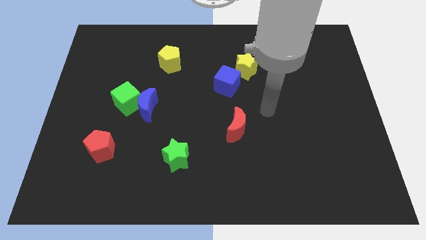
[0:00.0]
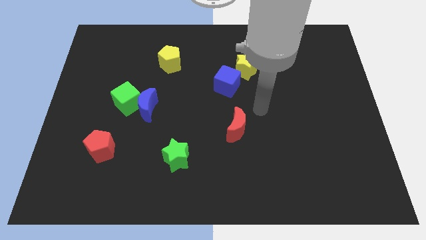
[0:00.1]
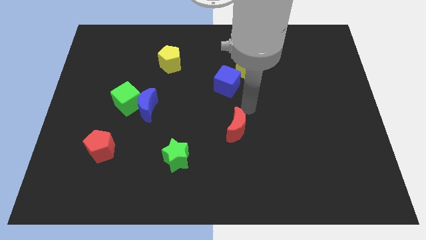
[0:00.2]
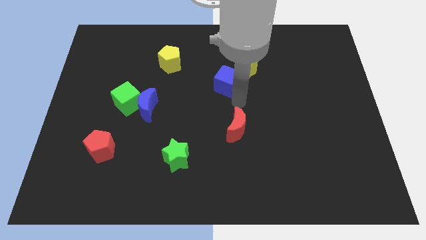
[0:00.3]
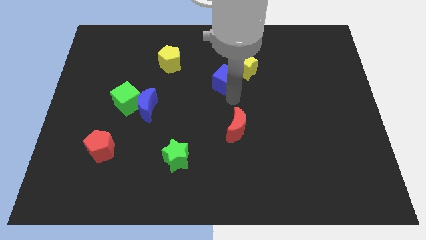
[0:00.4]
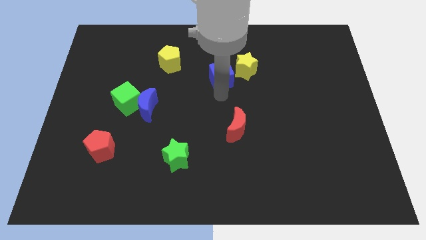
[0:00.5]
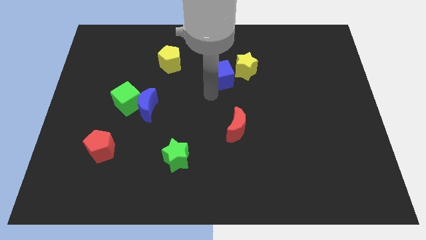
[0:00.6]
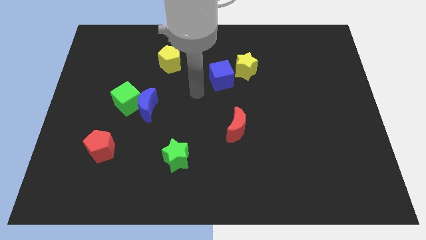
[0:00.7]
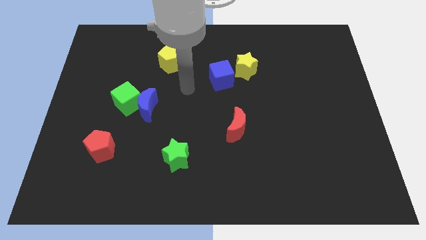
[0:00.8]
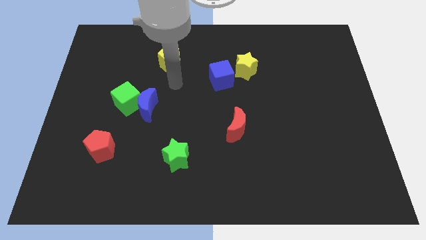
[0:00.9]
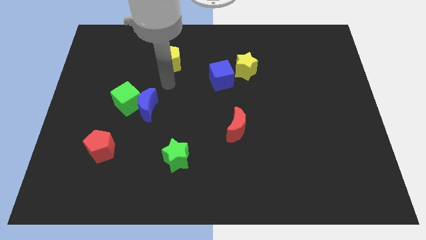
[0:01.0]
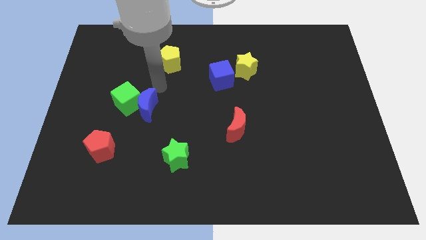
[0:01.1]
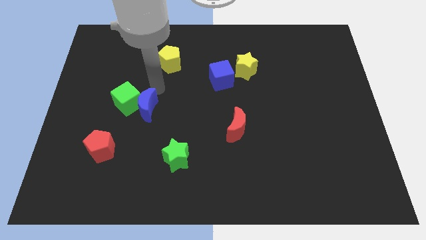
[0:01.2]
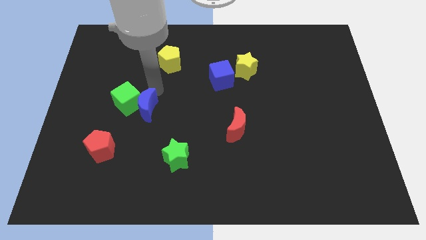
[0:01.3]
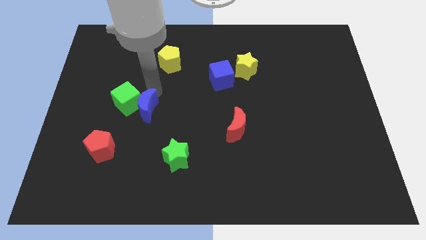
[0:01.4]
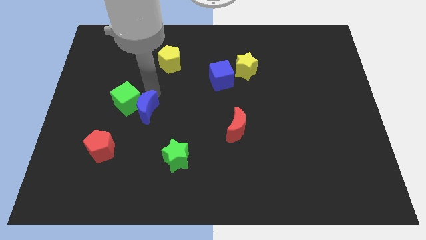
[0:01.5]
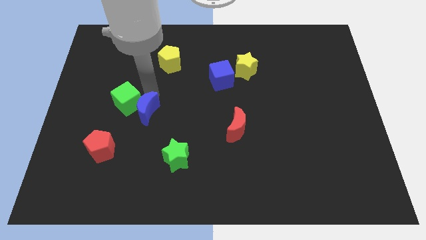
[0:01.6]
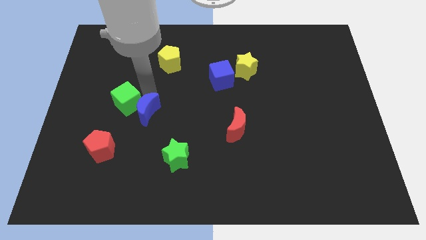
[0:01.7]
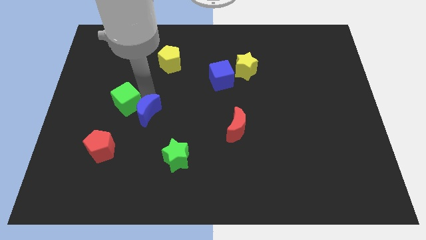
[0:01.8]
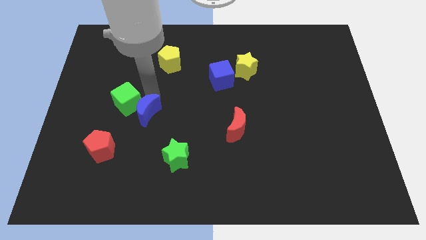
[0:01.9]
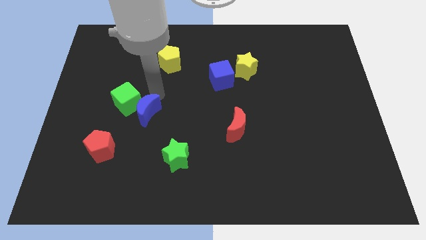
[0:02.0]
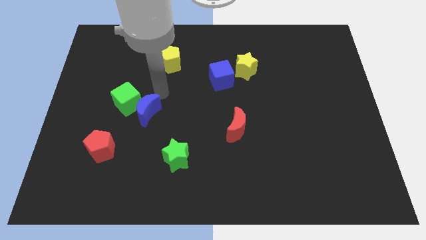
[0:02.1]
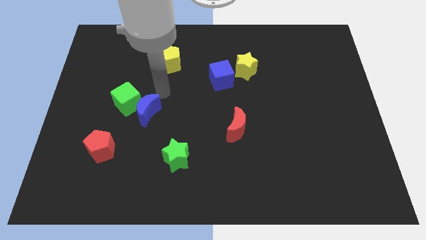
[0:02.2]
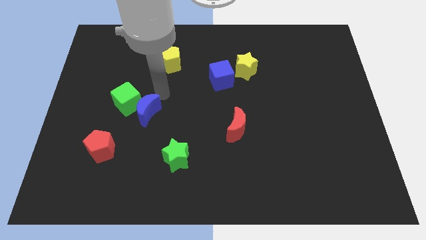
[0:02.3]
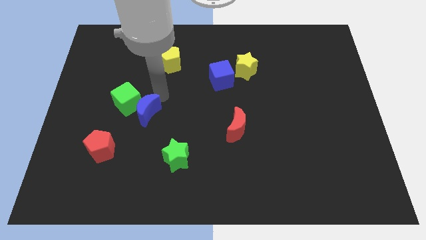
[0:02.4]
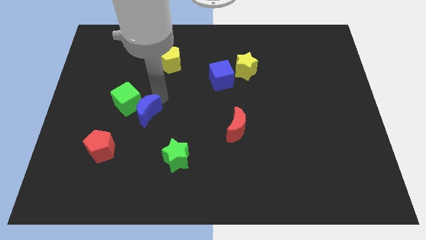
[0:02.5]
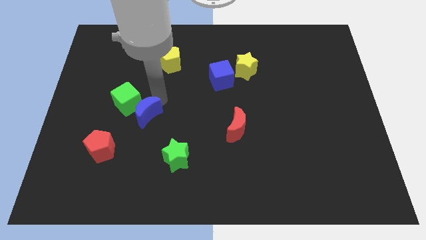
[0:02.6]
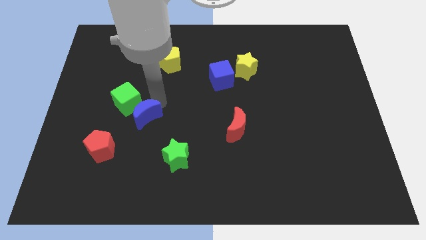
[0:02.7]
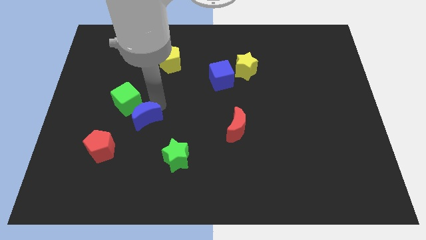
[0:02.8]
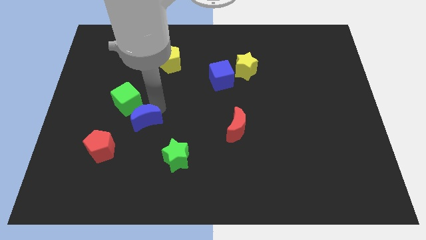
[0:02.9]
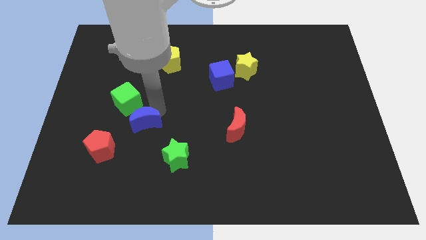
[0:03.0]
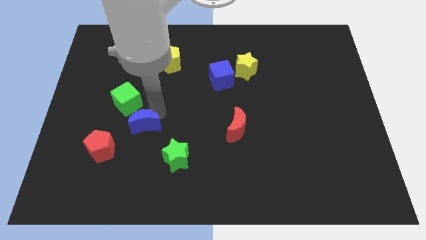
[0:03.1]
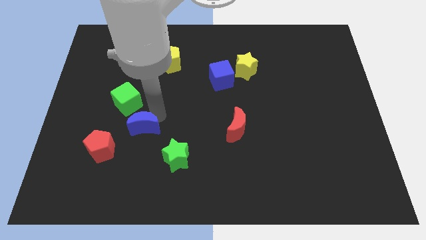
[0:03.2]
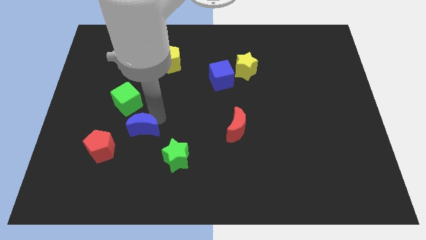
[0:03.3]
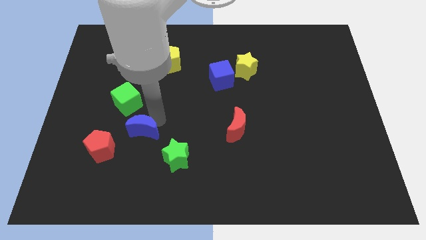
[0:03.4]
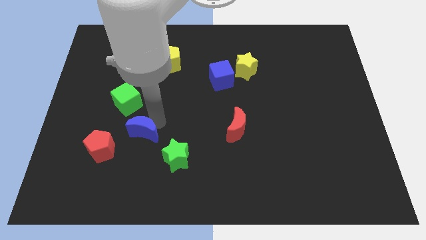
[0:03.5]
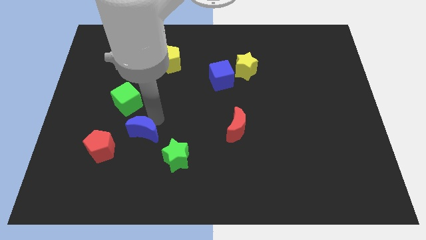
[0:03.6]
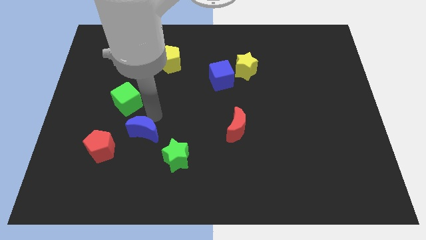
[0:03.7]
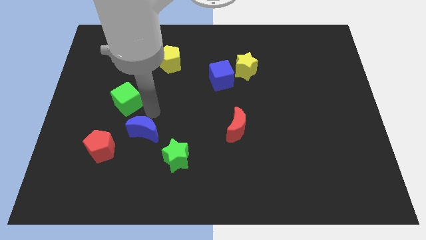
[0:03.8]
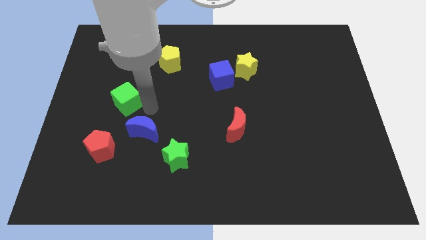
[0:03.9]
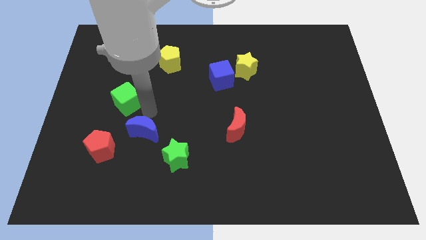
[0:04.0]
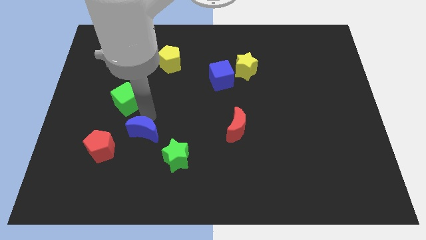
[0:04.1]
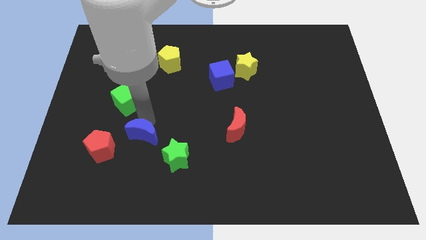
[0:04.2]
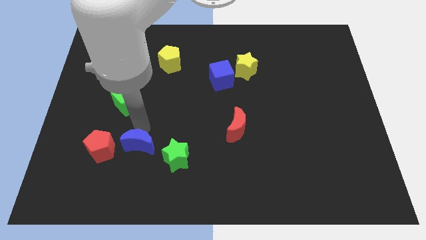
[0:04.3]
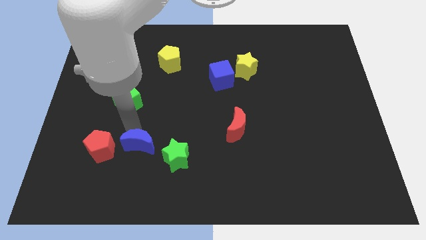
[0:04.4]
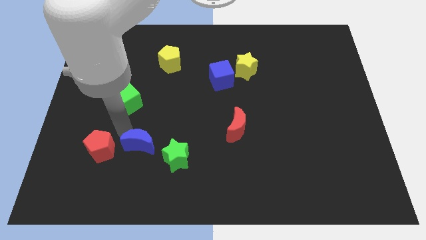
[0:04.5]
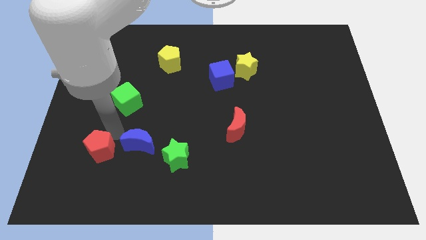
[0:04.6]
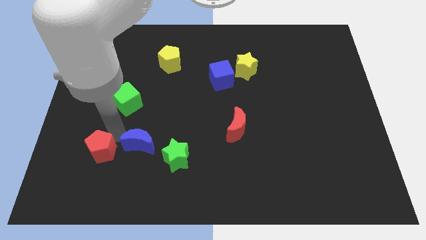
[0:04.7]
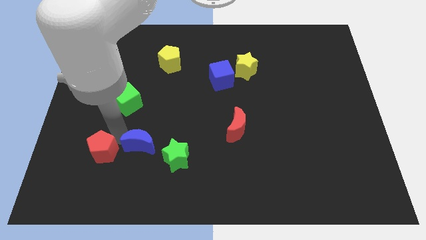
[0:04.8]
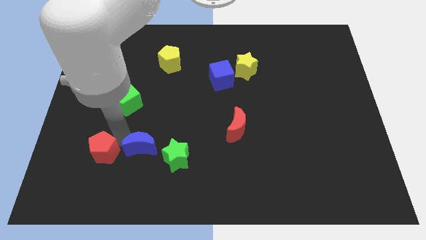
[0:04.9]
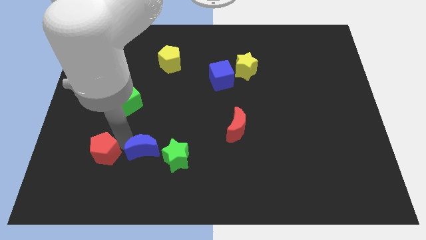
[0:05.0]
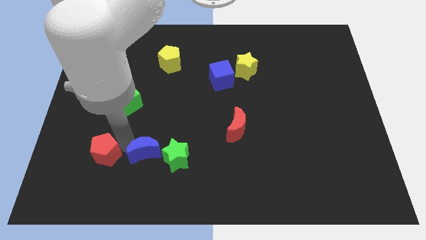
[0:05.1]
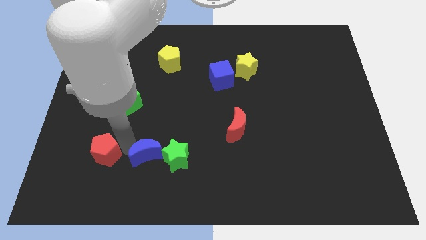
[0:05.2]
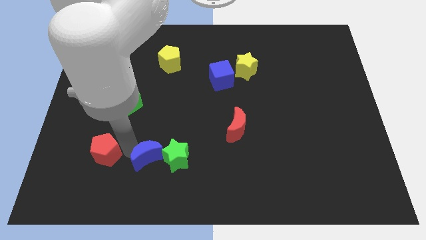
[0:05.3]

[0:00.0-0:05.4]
slide the blue moon to the green star

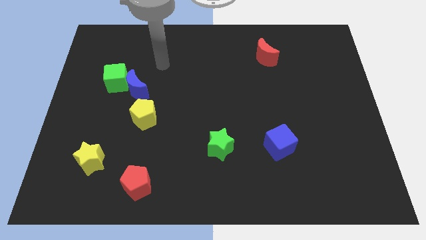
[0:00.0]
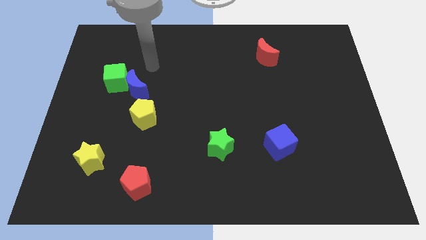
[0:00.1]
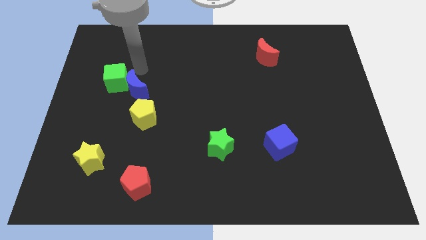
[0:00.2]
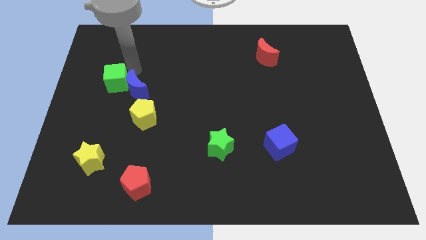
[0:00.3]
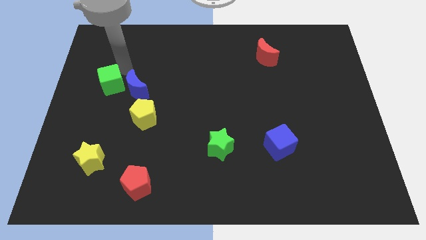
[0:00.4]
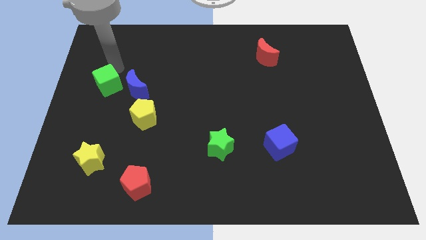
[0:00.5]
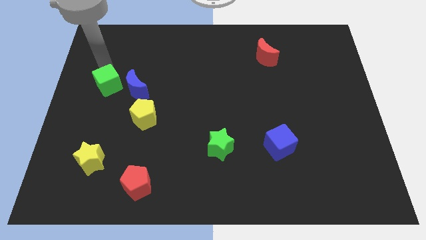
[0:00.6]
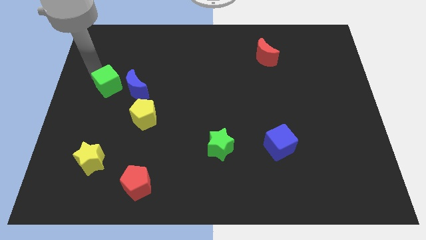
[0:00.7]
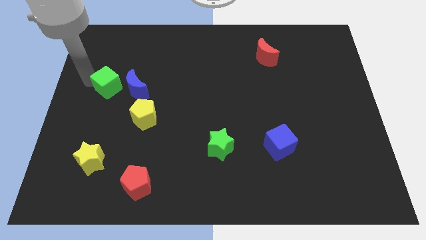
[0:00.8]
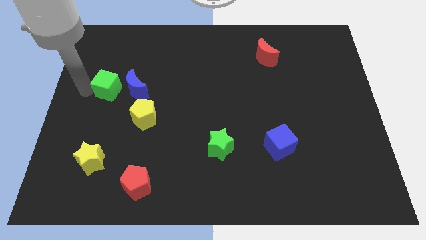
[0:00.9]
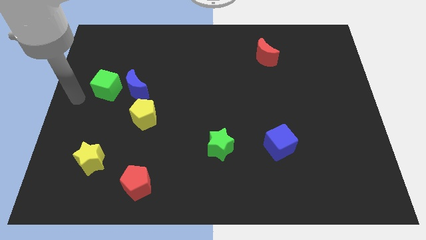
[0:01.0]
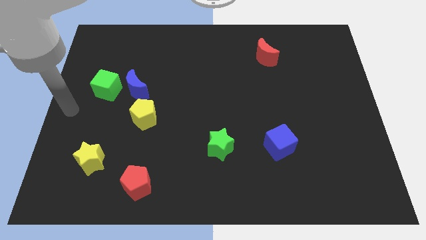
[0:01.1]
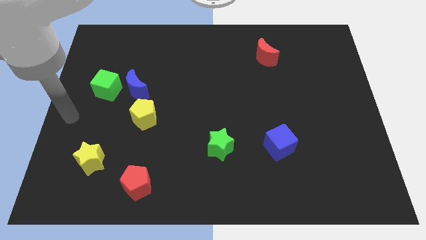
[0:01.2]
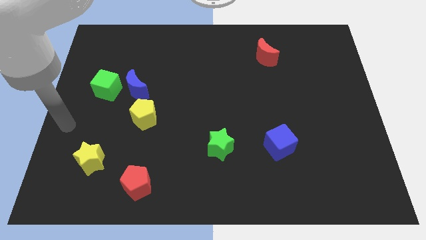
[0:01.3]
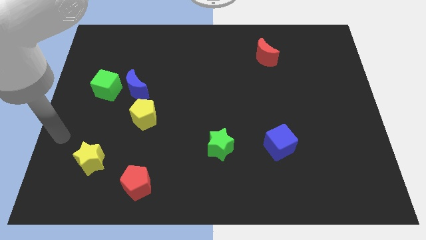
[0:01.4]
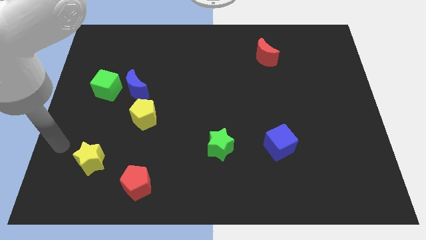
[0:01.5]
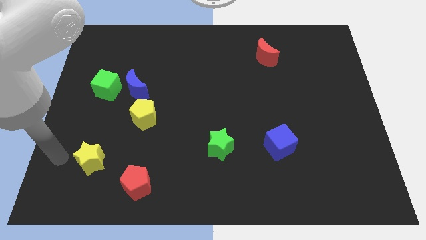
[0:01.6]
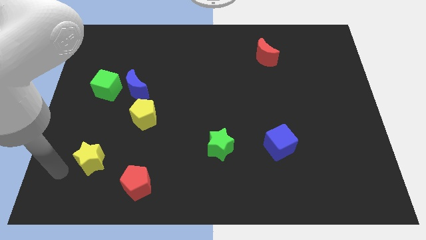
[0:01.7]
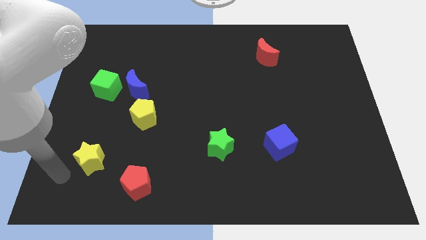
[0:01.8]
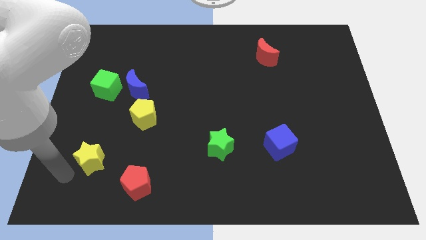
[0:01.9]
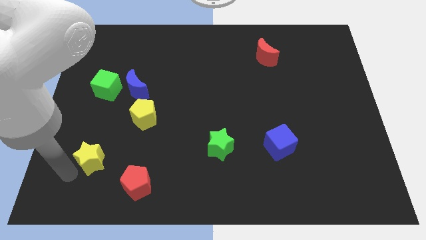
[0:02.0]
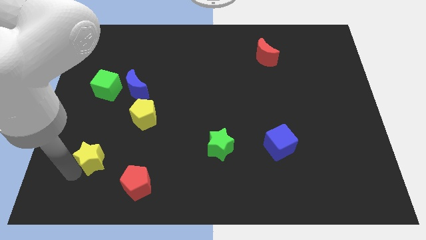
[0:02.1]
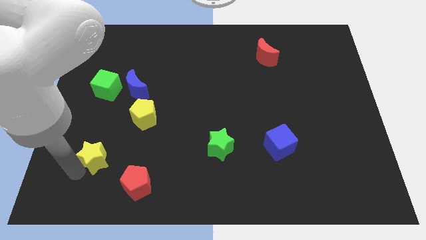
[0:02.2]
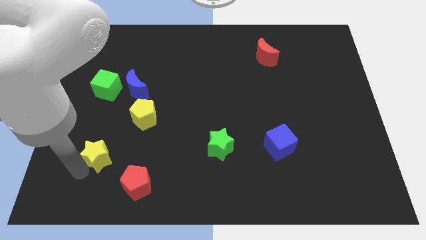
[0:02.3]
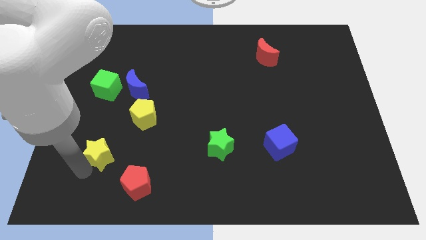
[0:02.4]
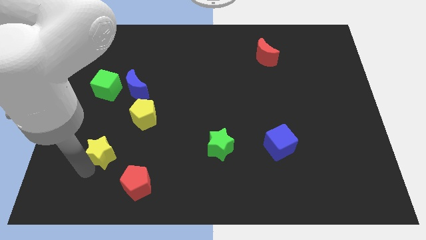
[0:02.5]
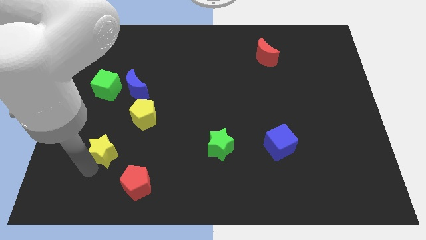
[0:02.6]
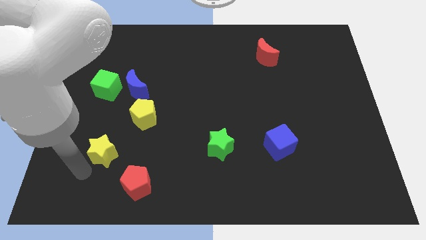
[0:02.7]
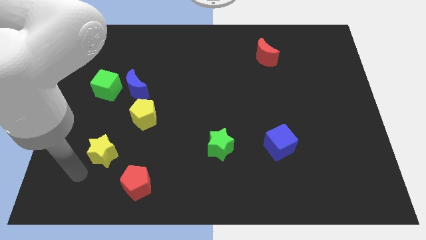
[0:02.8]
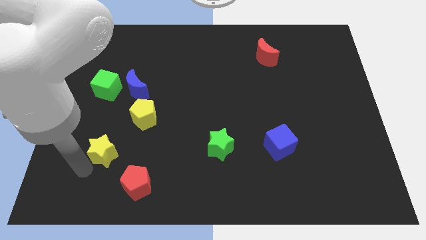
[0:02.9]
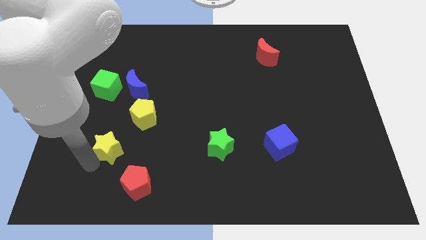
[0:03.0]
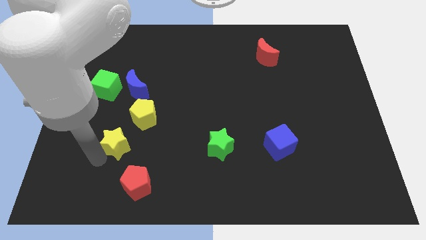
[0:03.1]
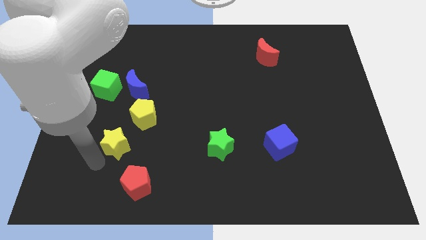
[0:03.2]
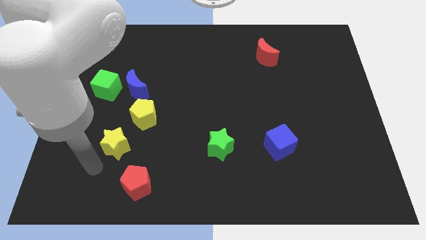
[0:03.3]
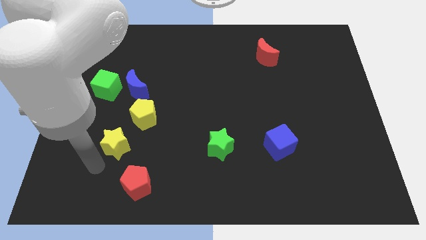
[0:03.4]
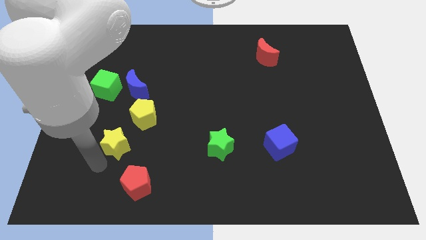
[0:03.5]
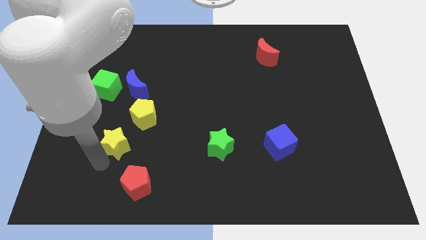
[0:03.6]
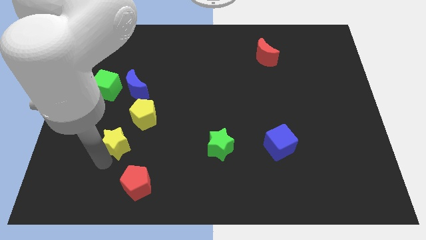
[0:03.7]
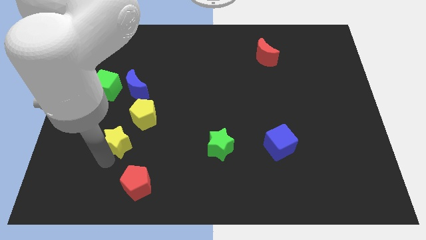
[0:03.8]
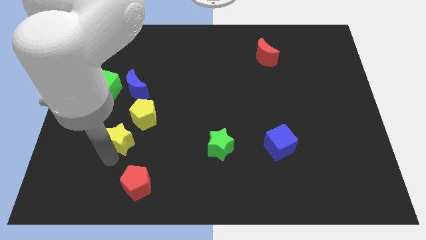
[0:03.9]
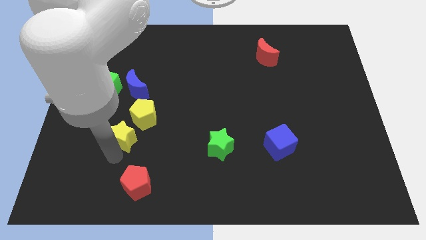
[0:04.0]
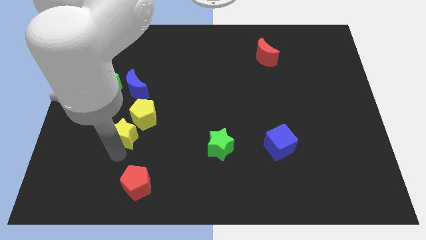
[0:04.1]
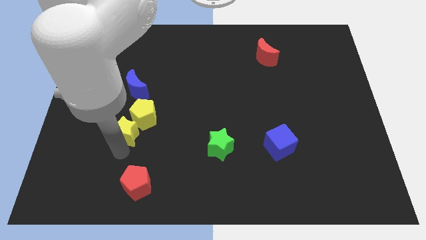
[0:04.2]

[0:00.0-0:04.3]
move the yellow star next to the yellow pentagon
